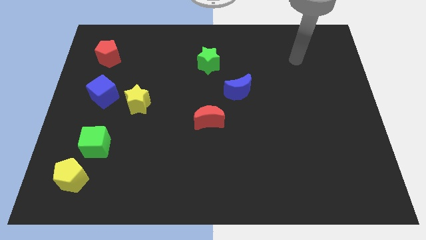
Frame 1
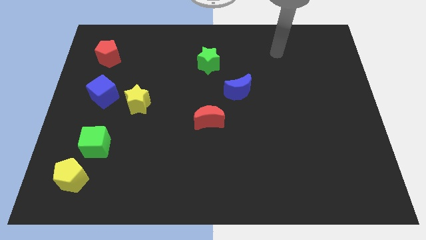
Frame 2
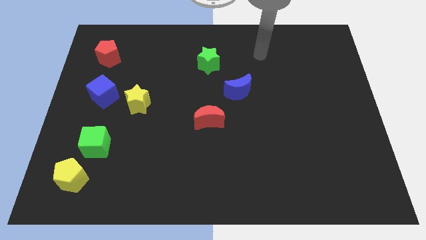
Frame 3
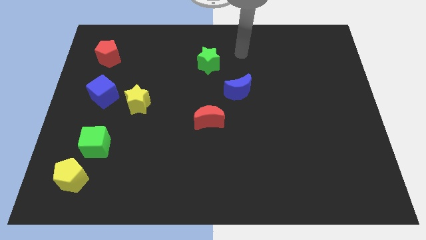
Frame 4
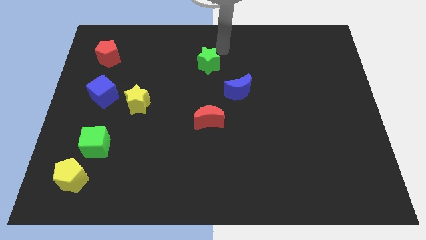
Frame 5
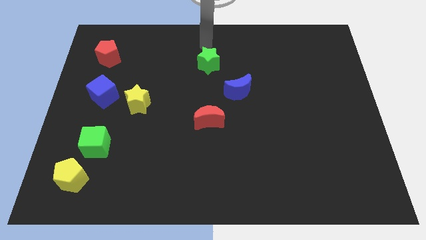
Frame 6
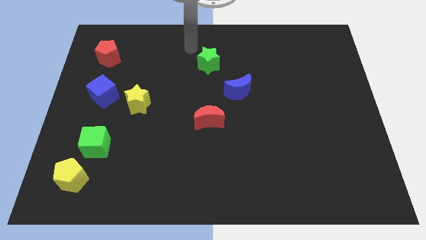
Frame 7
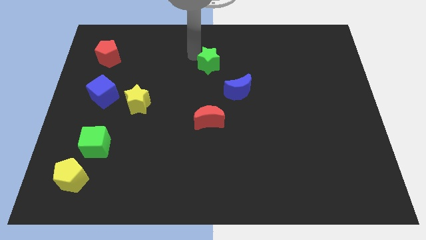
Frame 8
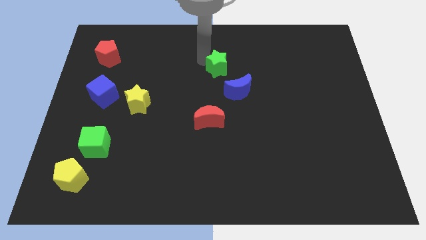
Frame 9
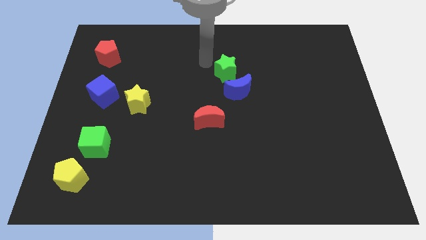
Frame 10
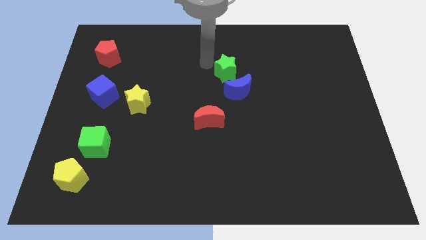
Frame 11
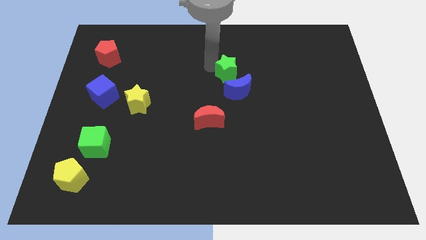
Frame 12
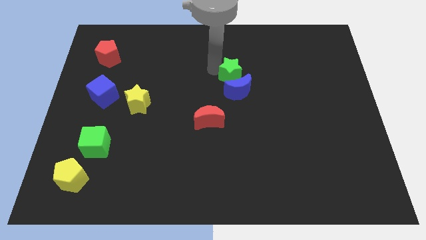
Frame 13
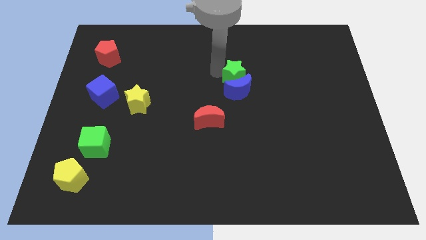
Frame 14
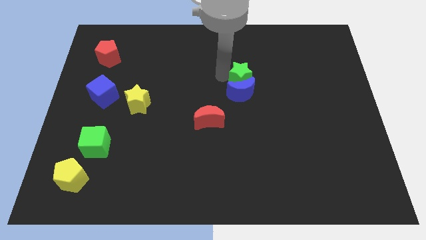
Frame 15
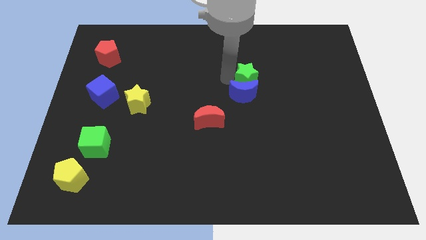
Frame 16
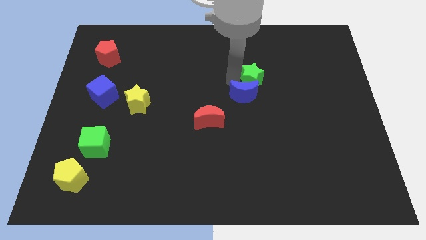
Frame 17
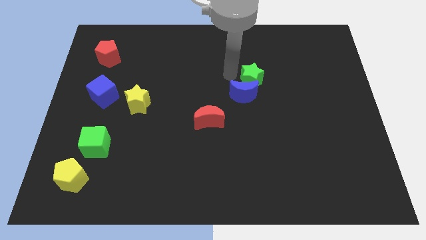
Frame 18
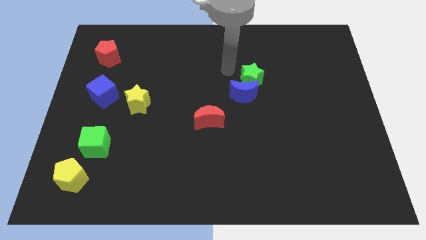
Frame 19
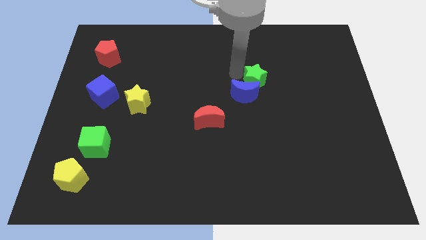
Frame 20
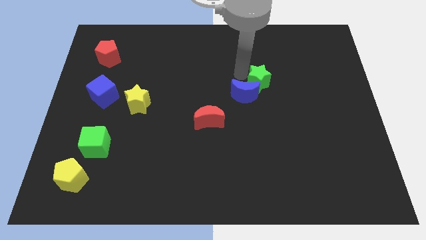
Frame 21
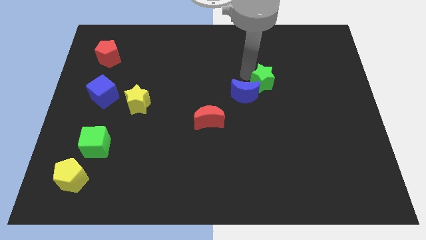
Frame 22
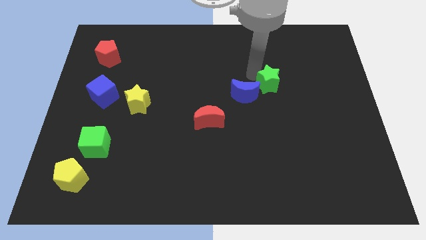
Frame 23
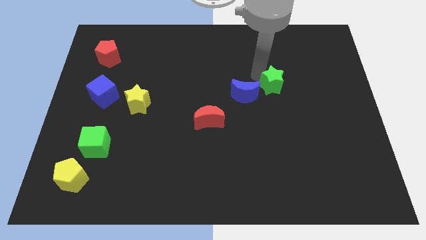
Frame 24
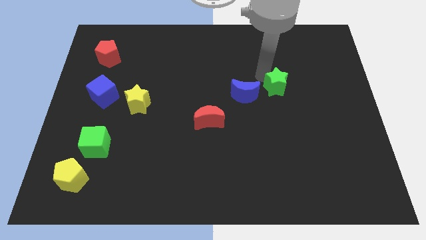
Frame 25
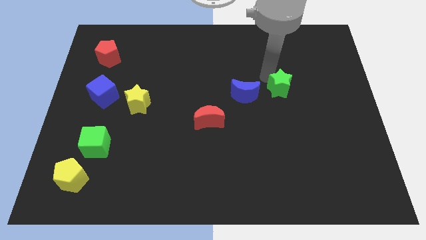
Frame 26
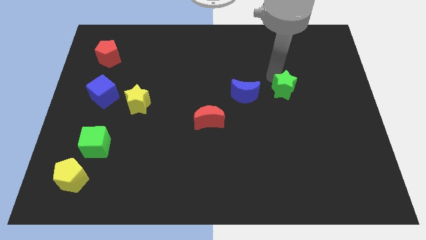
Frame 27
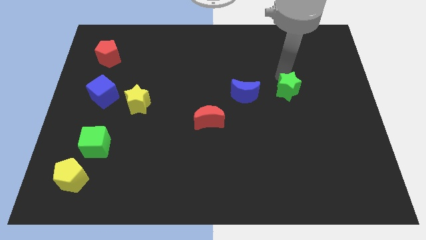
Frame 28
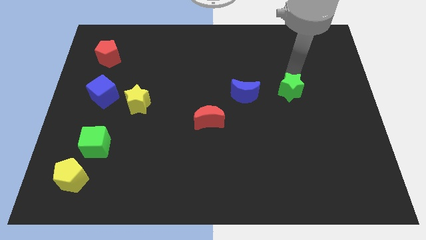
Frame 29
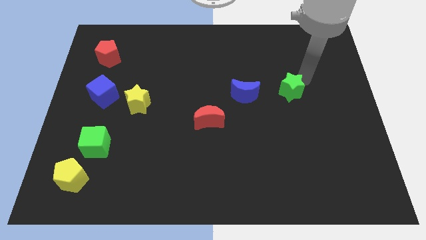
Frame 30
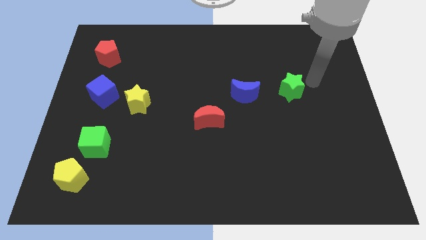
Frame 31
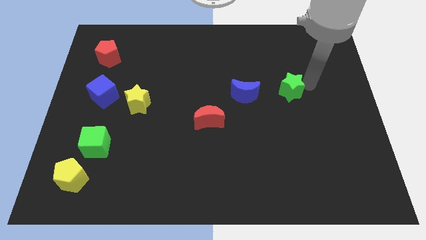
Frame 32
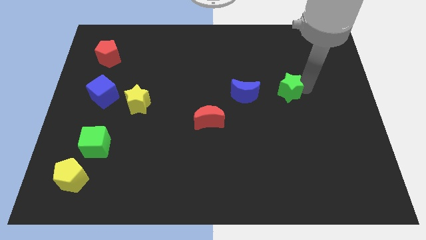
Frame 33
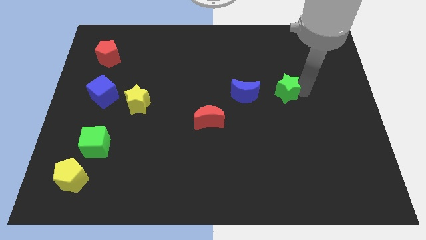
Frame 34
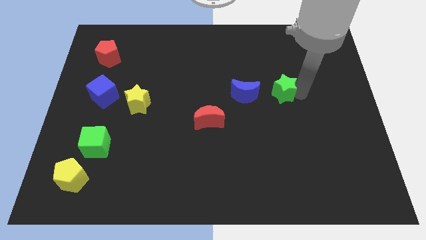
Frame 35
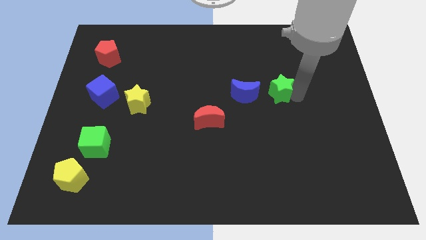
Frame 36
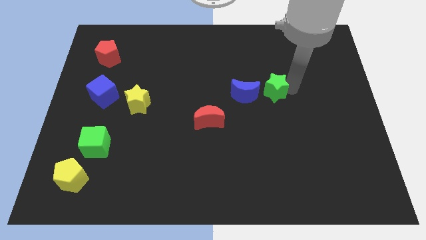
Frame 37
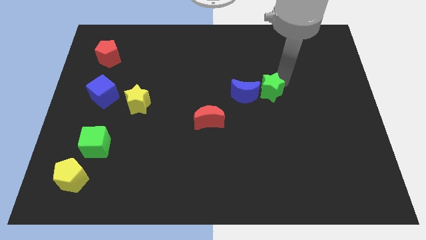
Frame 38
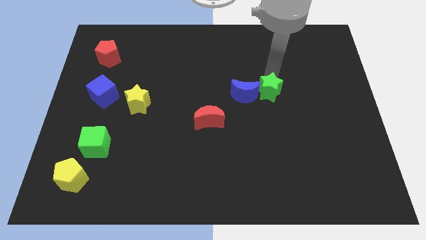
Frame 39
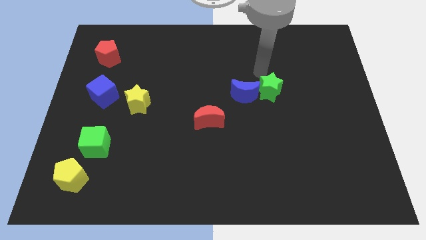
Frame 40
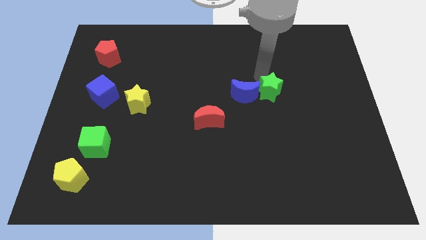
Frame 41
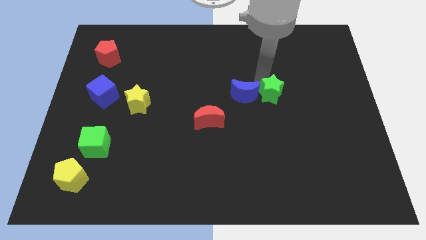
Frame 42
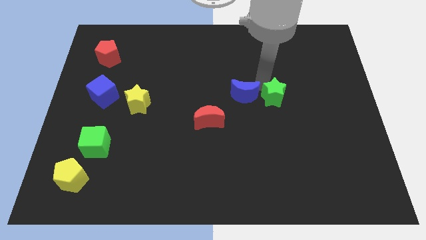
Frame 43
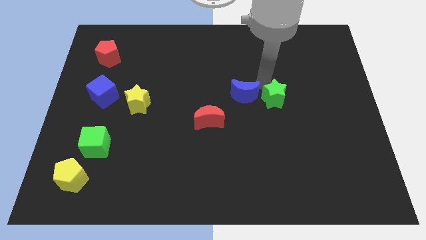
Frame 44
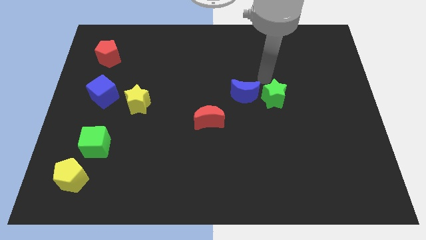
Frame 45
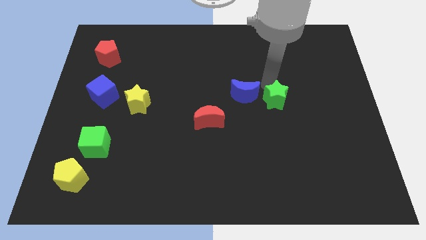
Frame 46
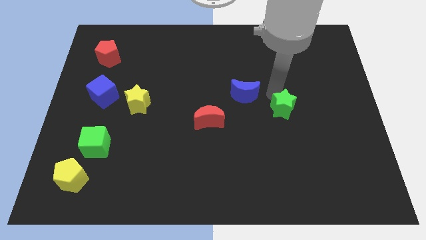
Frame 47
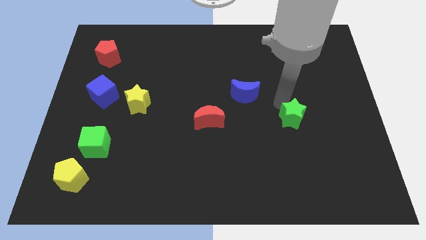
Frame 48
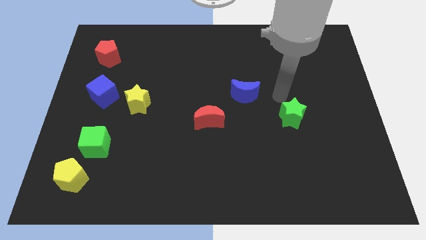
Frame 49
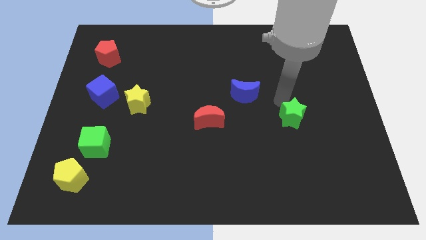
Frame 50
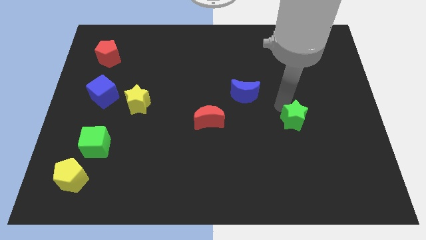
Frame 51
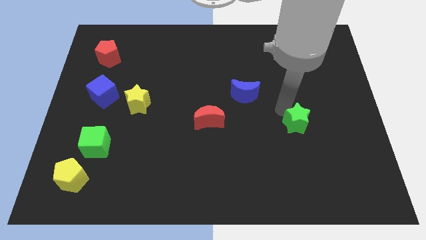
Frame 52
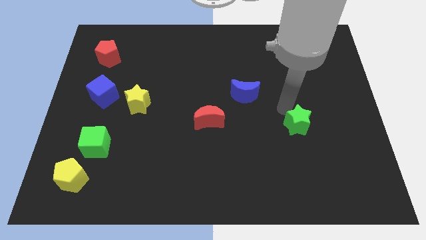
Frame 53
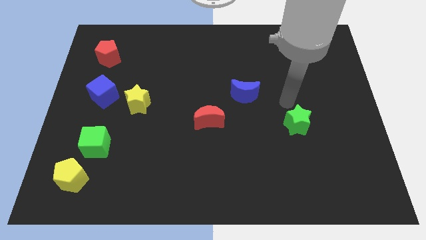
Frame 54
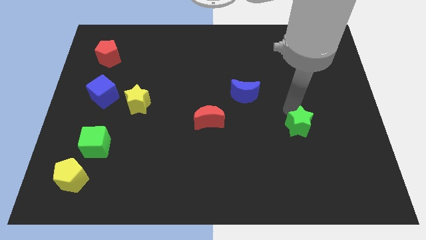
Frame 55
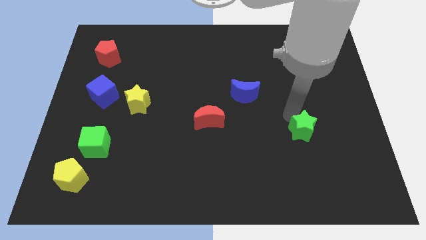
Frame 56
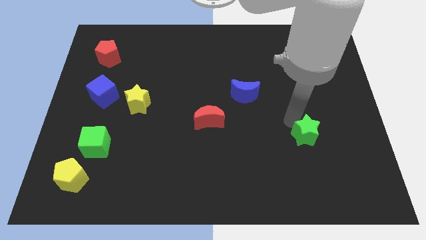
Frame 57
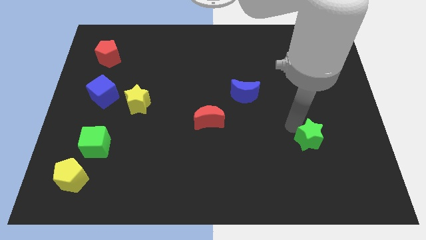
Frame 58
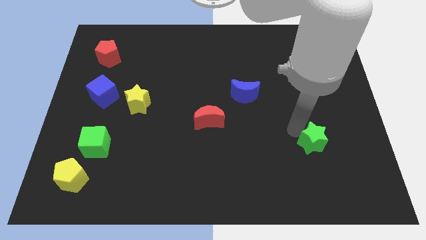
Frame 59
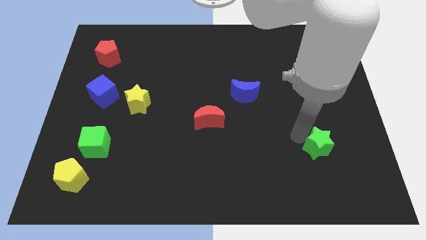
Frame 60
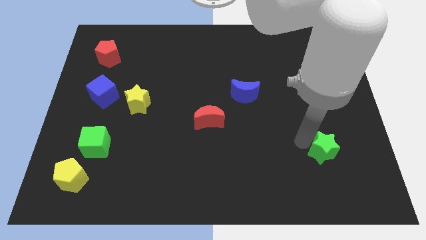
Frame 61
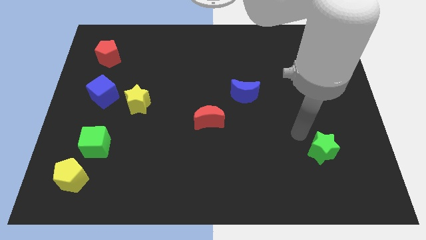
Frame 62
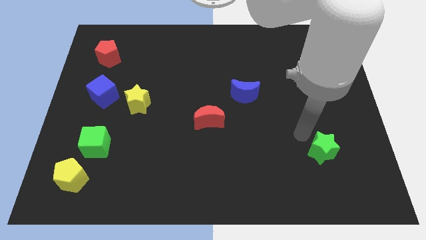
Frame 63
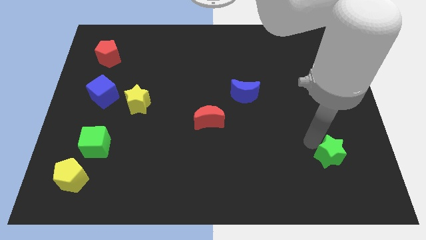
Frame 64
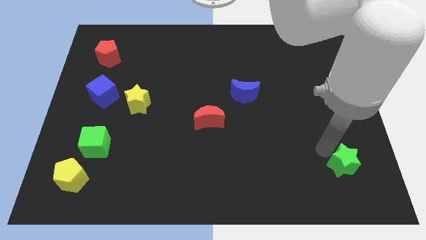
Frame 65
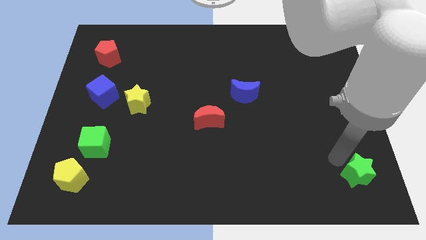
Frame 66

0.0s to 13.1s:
slide the green star to the bottom right

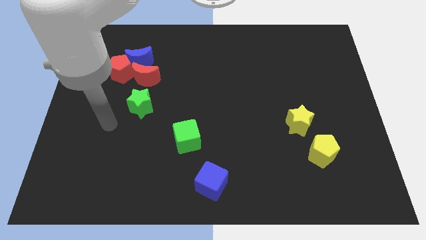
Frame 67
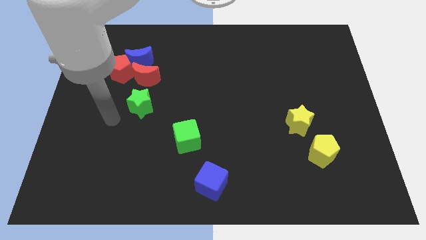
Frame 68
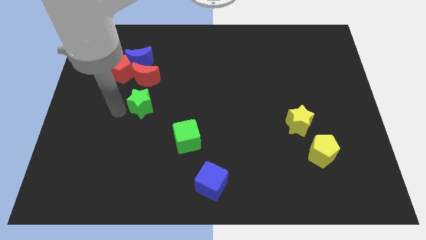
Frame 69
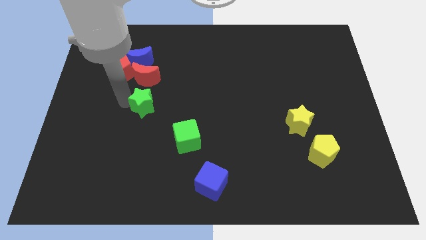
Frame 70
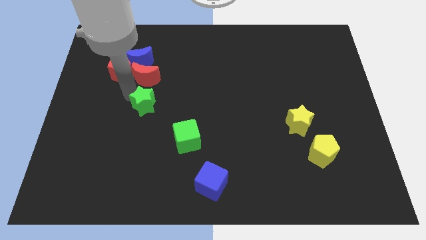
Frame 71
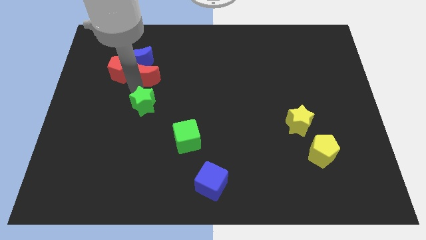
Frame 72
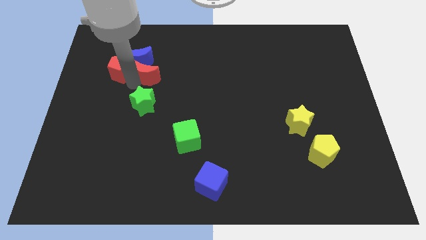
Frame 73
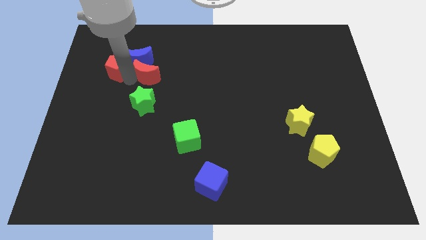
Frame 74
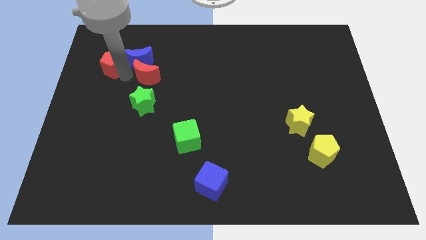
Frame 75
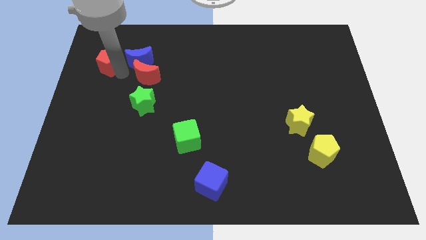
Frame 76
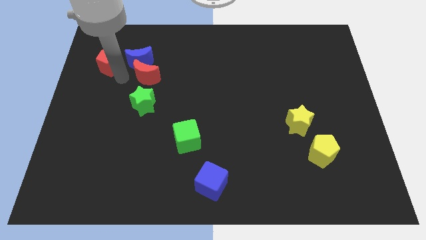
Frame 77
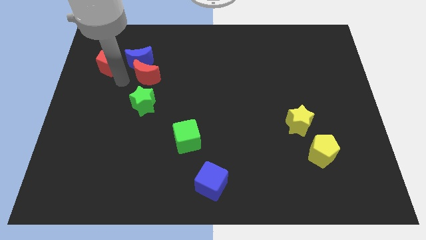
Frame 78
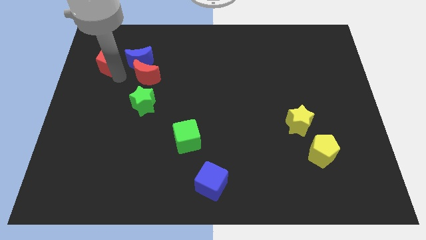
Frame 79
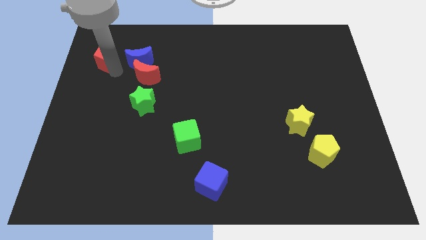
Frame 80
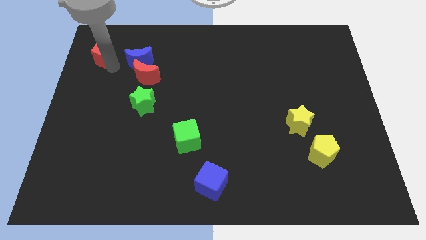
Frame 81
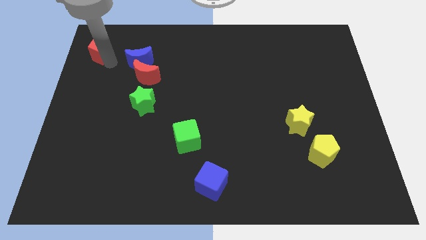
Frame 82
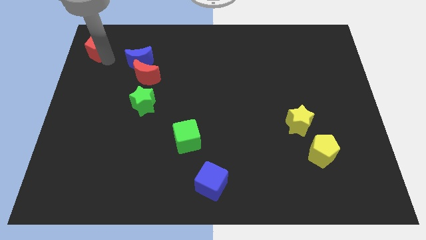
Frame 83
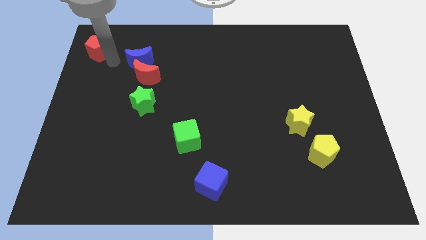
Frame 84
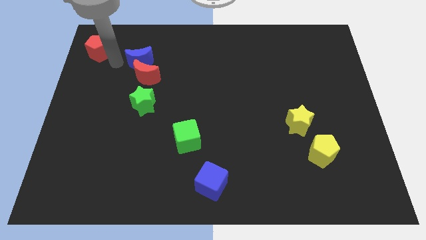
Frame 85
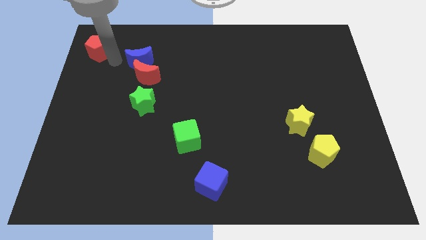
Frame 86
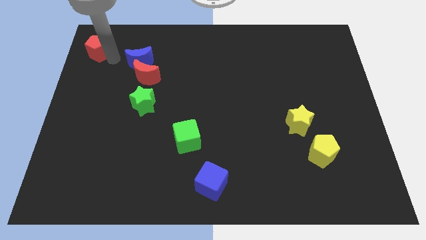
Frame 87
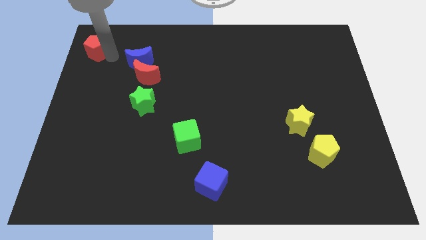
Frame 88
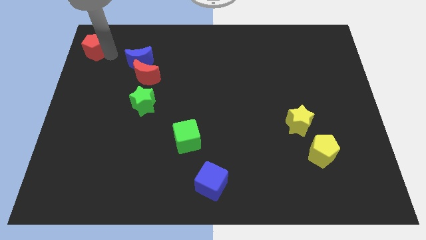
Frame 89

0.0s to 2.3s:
slide the red pentagon to the top left
